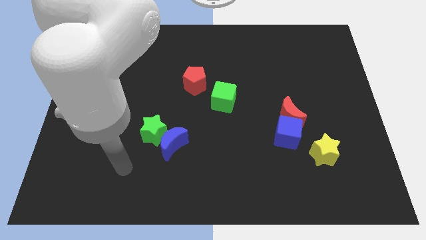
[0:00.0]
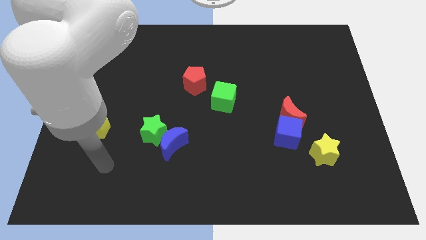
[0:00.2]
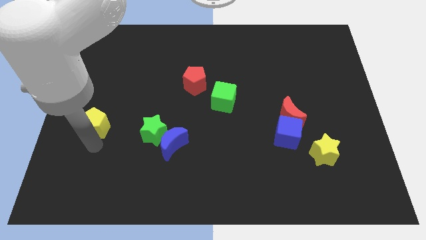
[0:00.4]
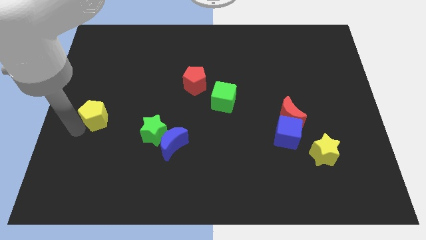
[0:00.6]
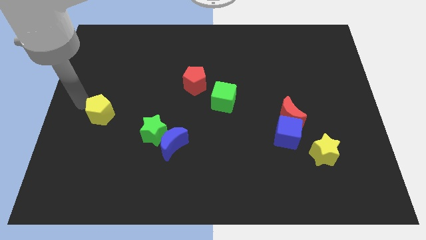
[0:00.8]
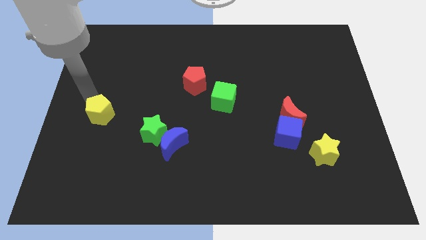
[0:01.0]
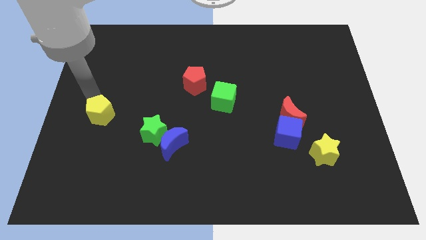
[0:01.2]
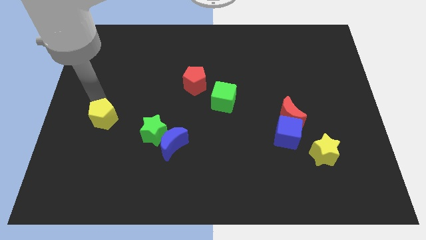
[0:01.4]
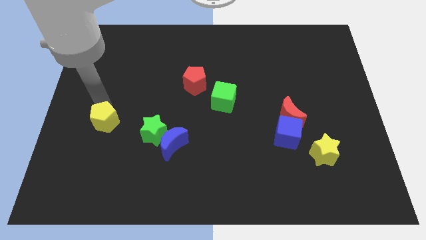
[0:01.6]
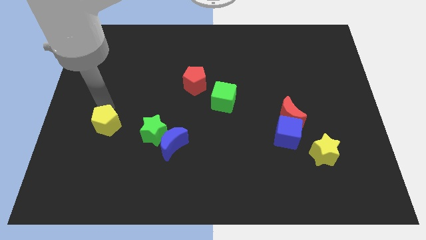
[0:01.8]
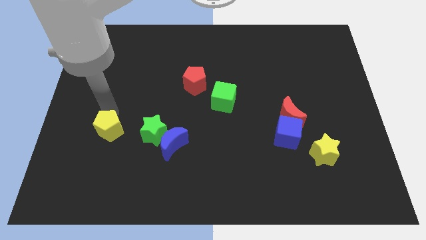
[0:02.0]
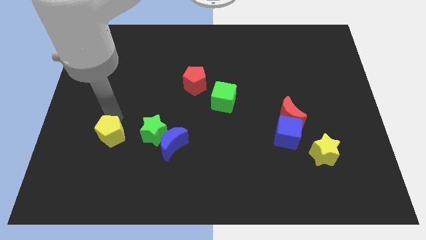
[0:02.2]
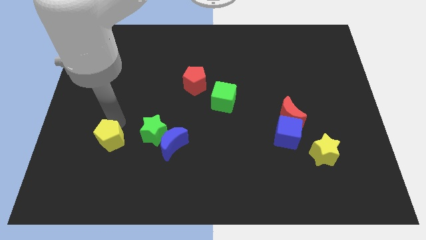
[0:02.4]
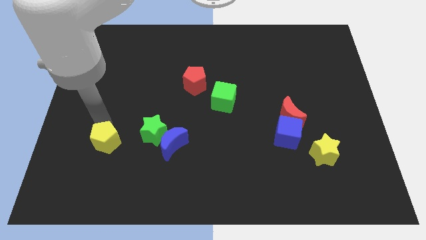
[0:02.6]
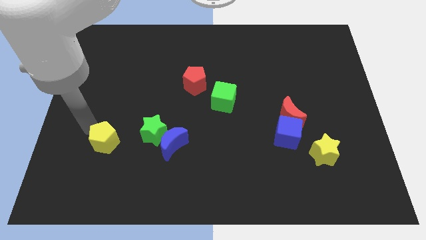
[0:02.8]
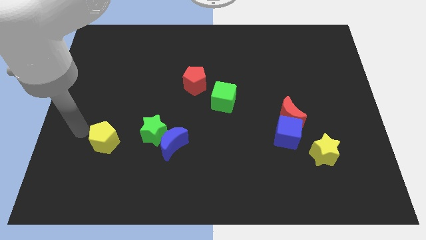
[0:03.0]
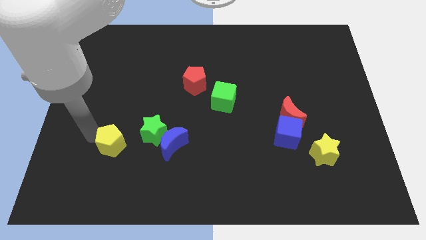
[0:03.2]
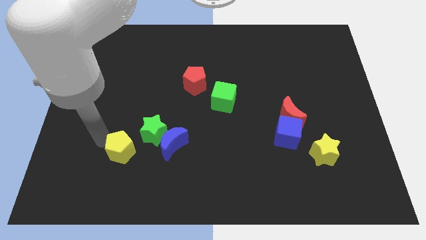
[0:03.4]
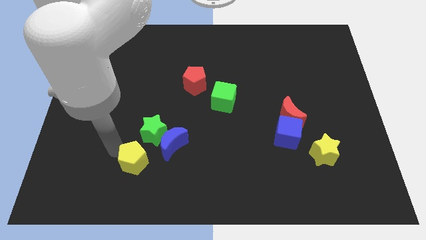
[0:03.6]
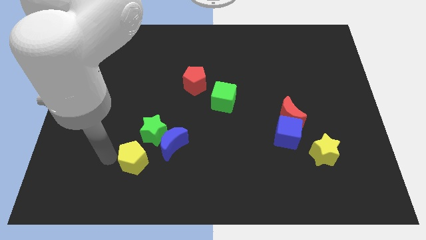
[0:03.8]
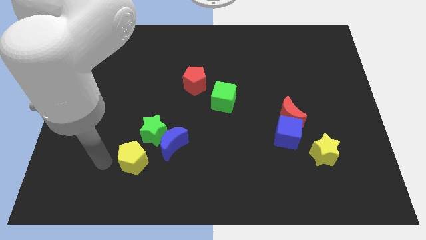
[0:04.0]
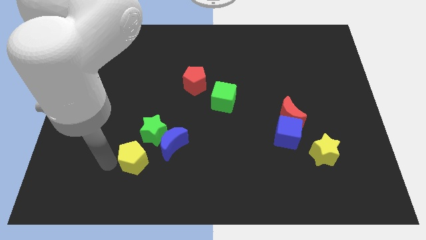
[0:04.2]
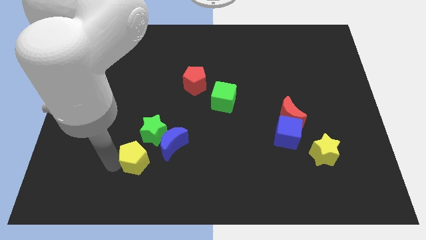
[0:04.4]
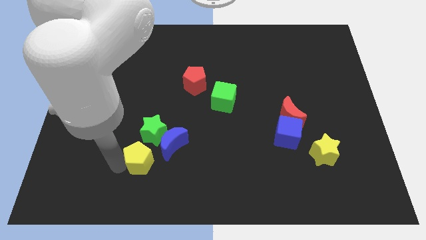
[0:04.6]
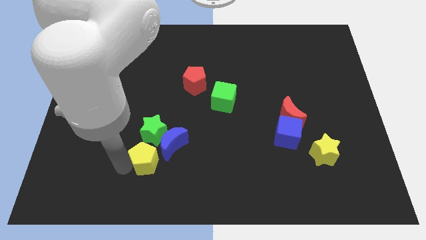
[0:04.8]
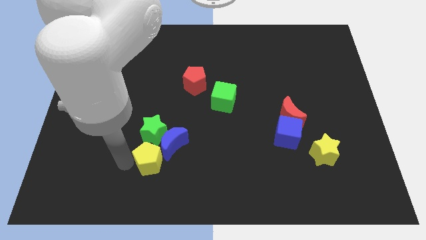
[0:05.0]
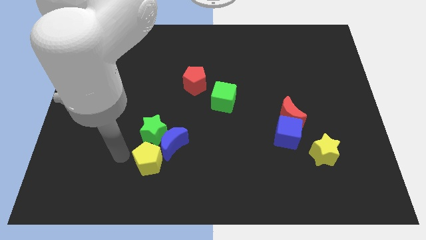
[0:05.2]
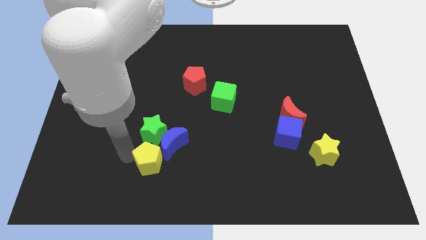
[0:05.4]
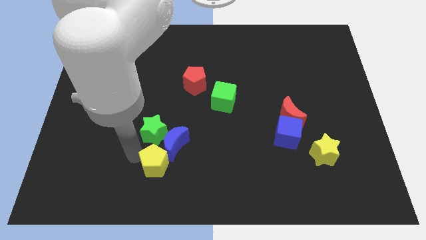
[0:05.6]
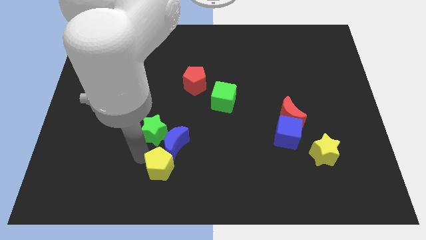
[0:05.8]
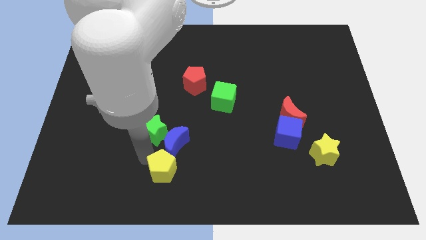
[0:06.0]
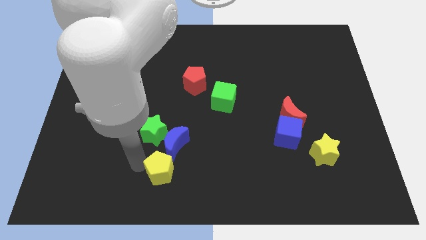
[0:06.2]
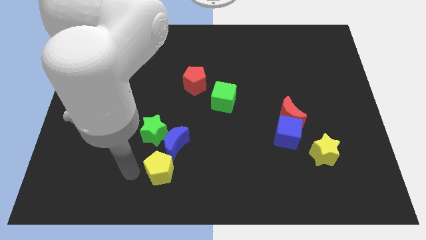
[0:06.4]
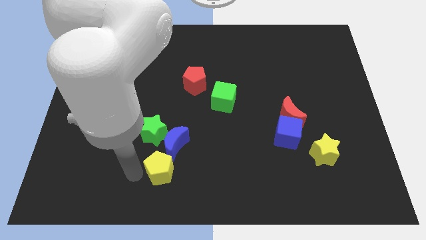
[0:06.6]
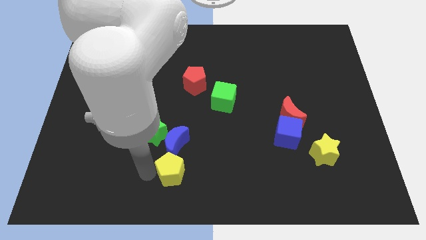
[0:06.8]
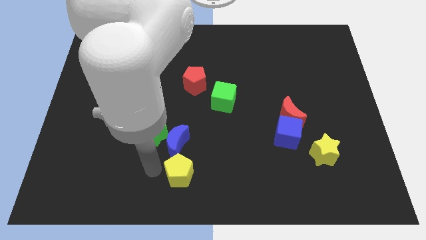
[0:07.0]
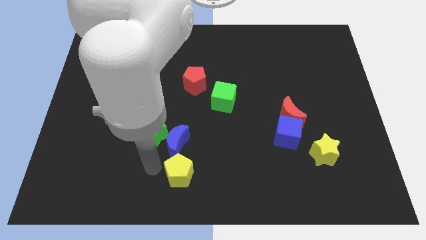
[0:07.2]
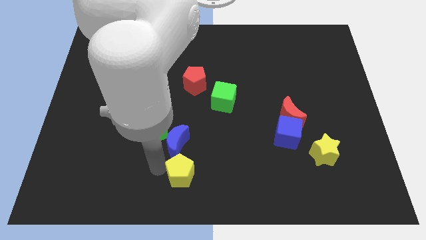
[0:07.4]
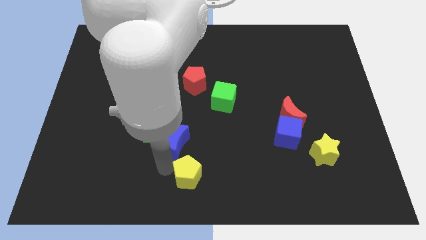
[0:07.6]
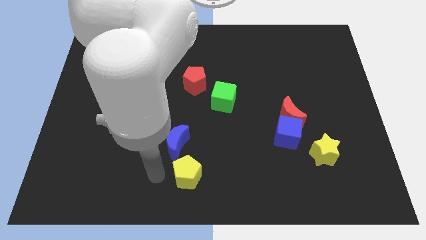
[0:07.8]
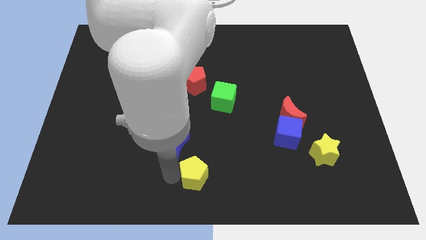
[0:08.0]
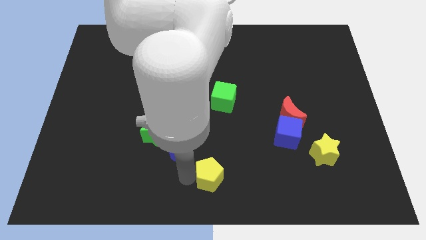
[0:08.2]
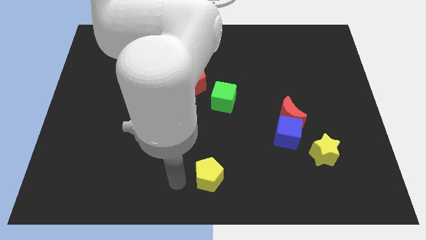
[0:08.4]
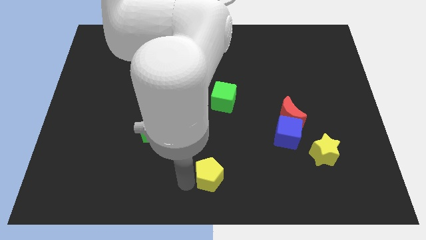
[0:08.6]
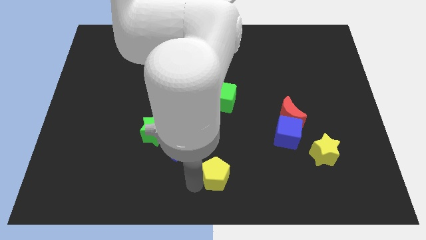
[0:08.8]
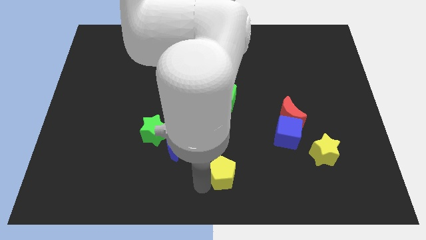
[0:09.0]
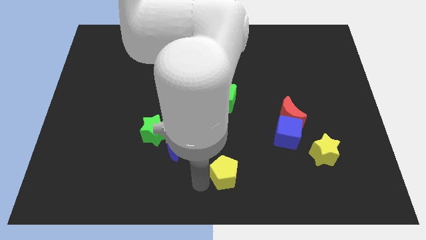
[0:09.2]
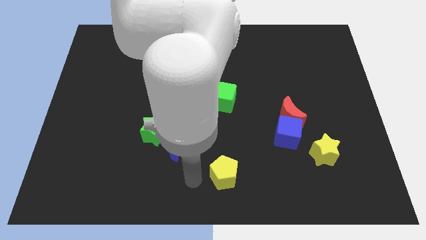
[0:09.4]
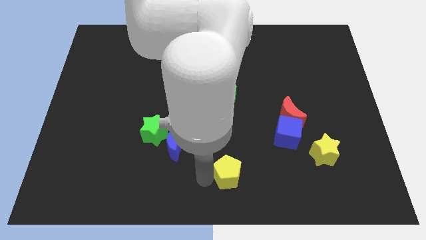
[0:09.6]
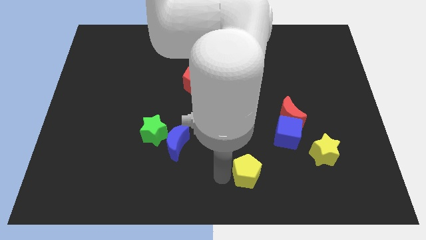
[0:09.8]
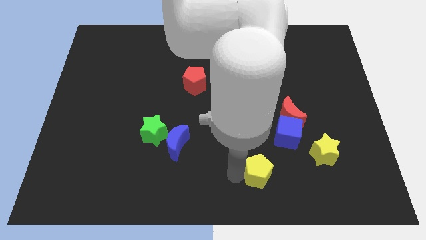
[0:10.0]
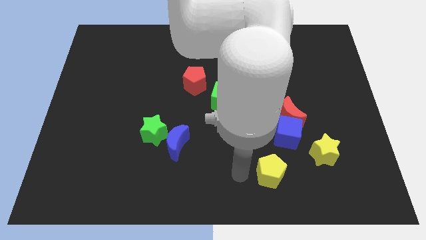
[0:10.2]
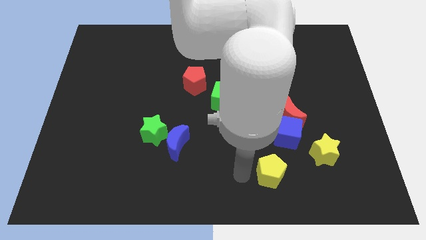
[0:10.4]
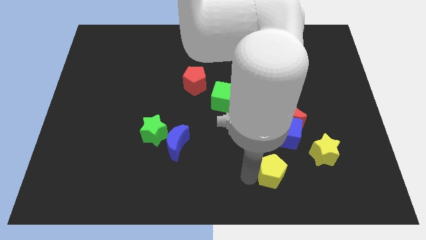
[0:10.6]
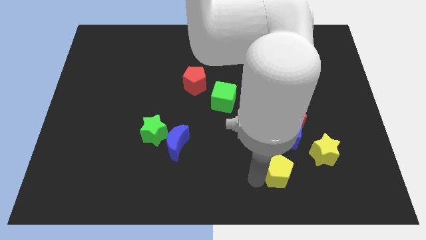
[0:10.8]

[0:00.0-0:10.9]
put the yellow pentagon diagonally down and to the left of the yellow star

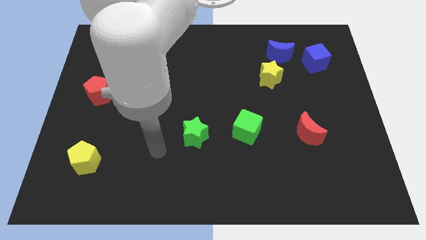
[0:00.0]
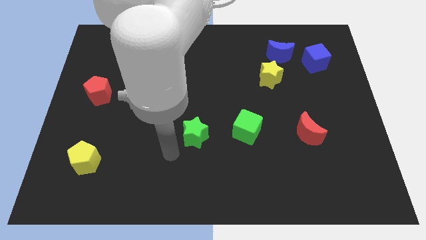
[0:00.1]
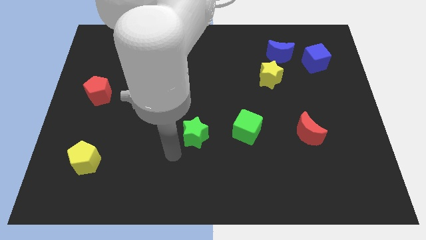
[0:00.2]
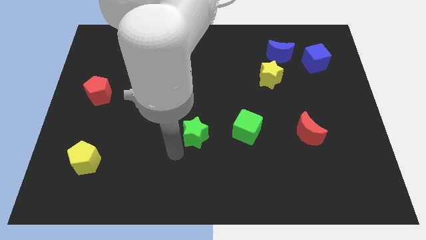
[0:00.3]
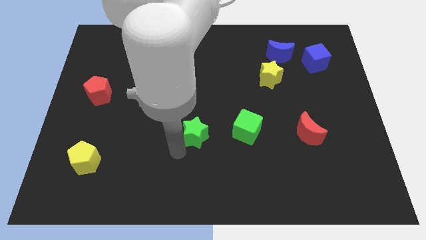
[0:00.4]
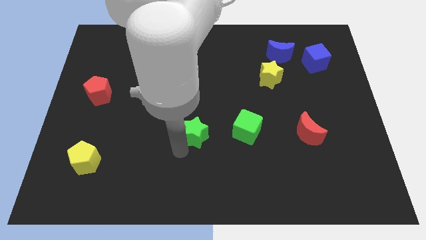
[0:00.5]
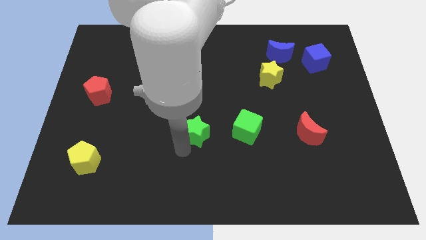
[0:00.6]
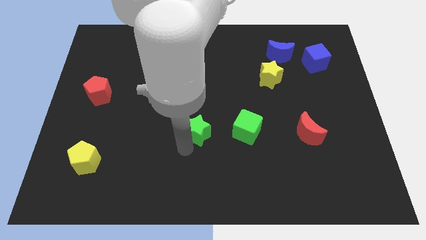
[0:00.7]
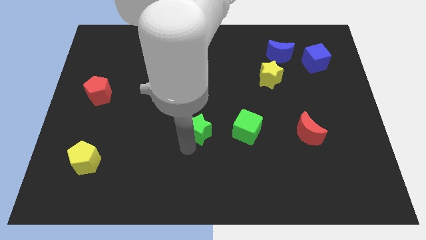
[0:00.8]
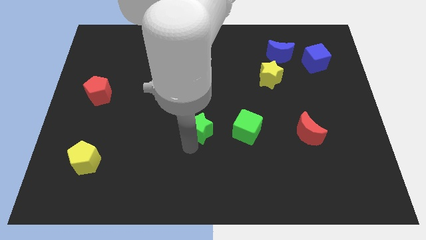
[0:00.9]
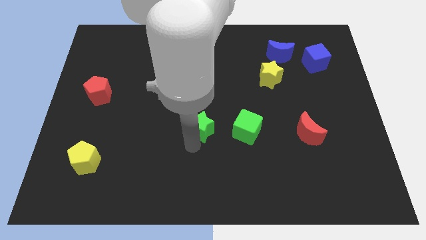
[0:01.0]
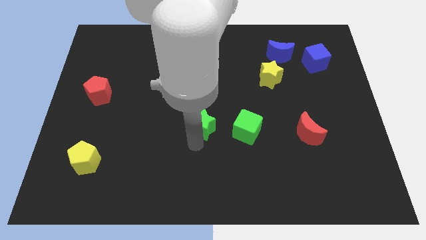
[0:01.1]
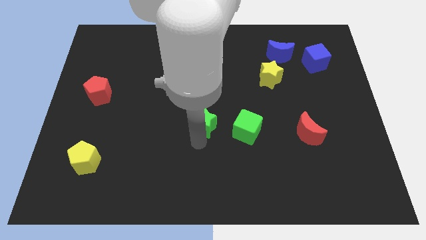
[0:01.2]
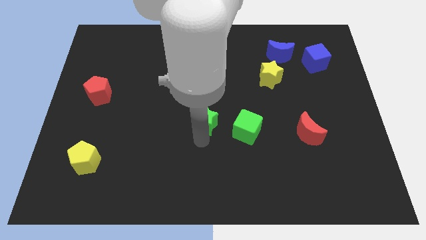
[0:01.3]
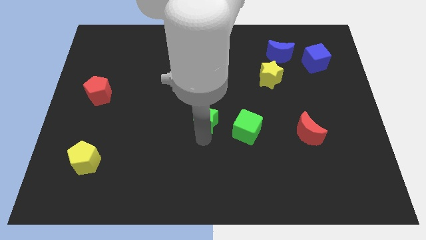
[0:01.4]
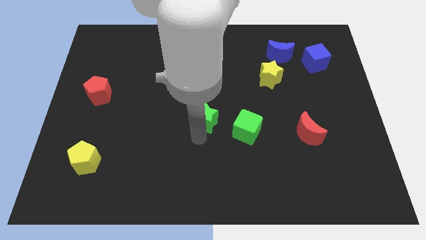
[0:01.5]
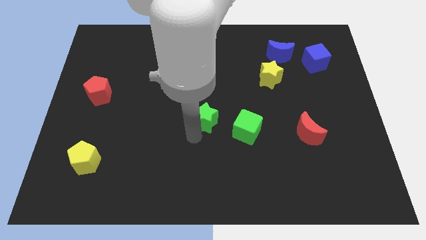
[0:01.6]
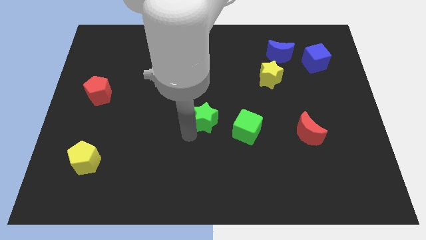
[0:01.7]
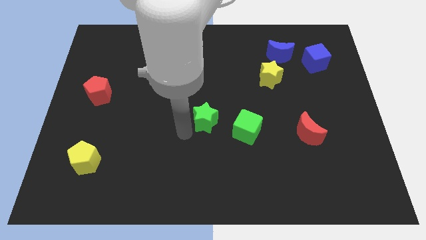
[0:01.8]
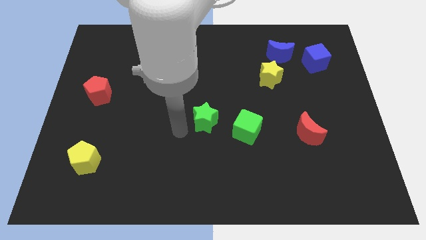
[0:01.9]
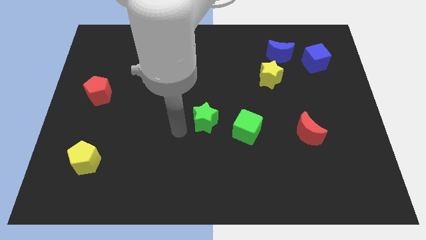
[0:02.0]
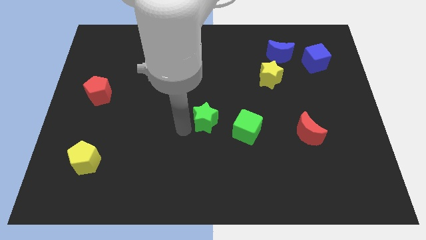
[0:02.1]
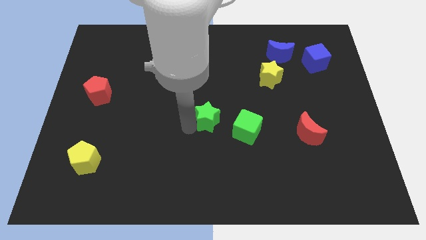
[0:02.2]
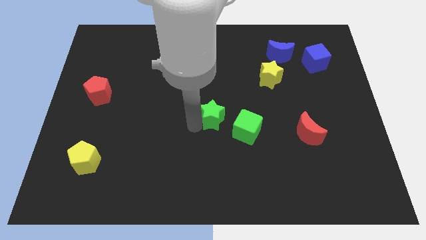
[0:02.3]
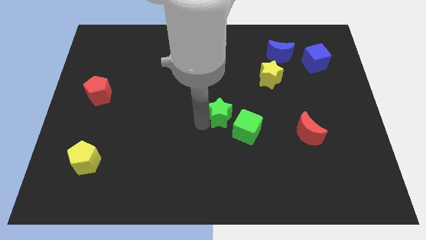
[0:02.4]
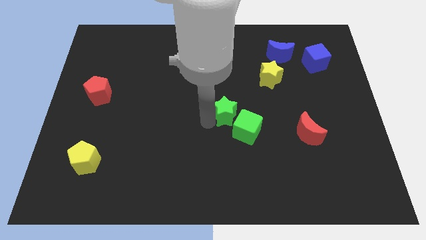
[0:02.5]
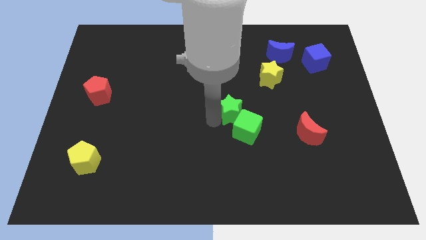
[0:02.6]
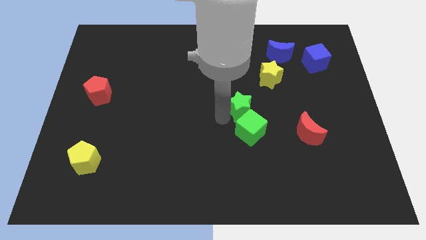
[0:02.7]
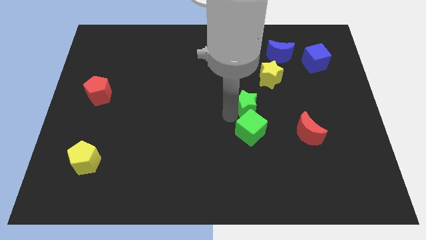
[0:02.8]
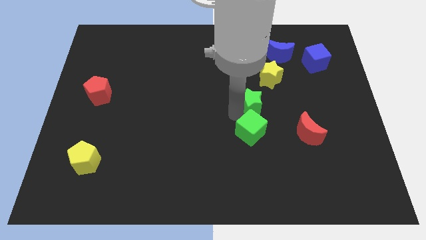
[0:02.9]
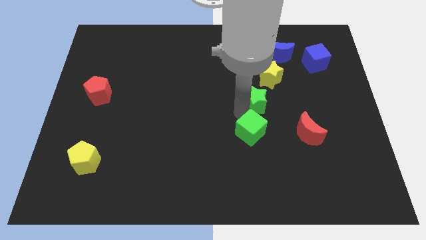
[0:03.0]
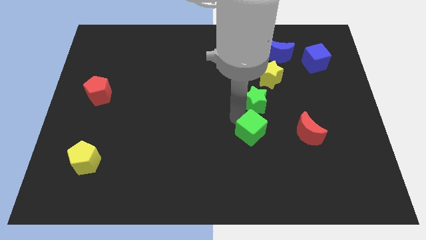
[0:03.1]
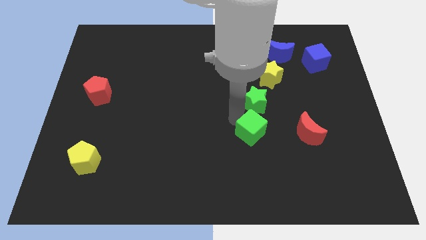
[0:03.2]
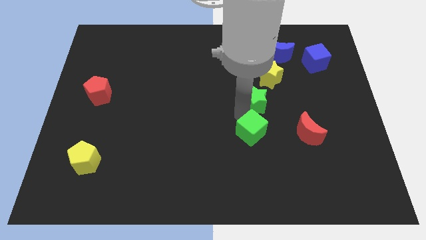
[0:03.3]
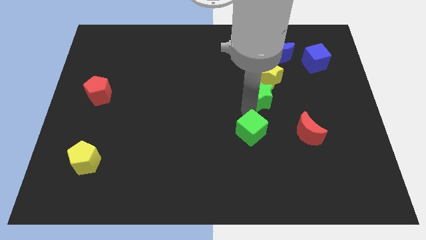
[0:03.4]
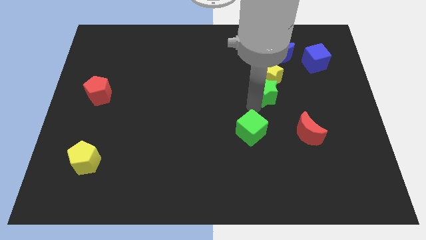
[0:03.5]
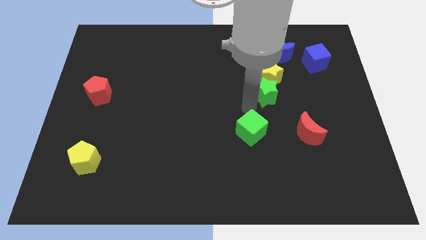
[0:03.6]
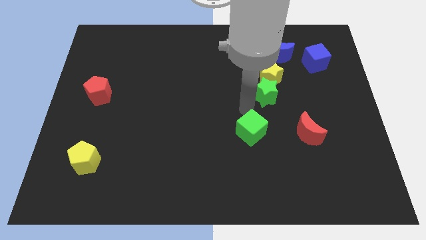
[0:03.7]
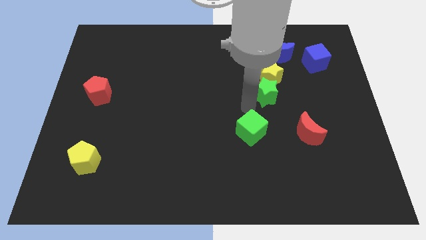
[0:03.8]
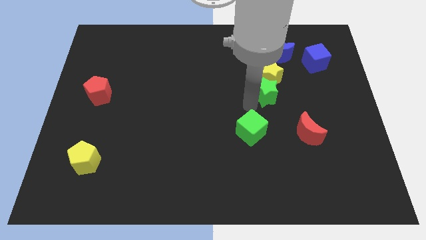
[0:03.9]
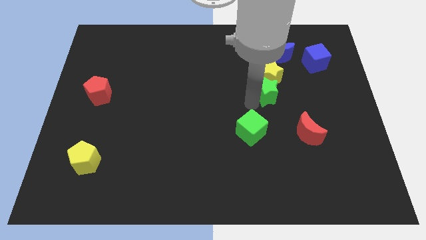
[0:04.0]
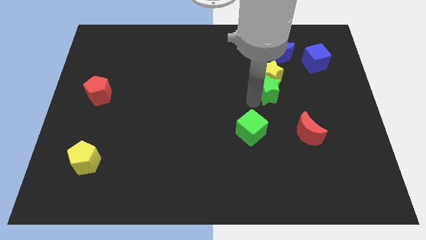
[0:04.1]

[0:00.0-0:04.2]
move the green star to the bottom of the blue moon
